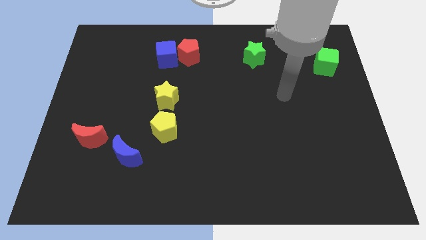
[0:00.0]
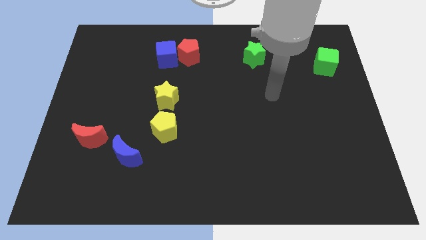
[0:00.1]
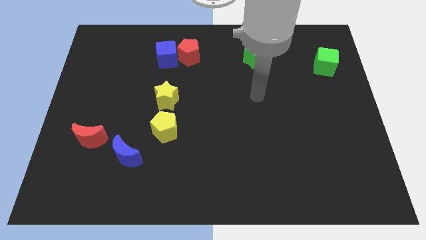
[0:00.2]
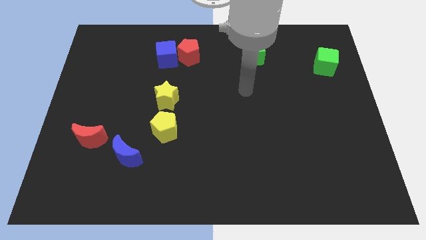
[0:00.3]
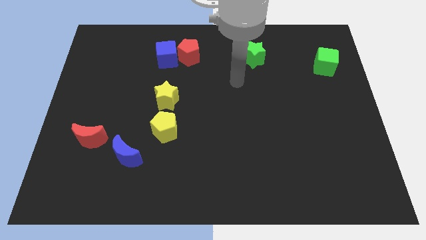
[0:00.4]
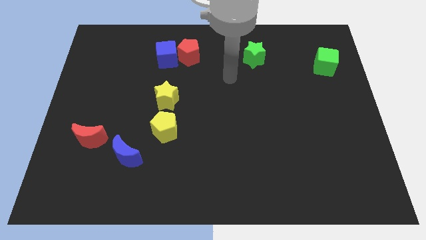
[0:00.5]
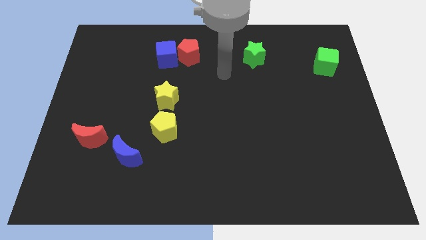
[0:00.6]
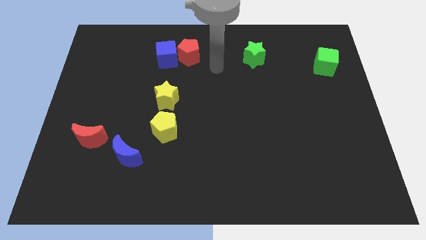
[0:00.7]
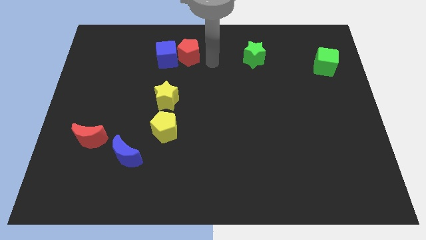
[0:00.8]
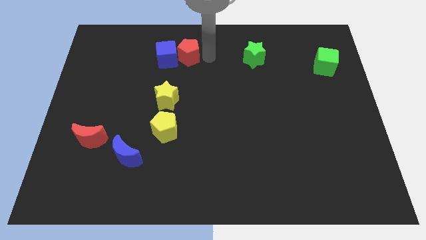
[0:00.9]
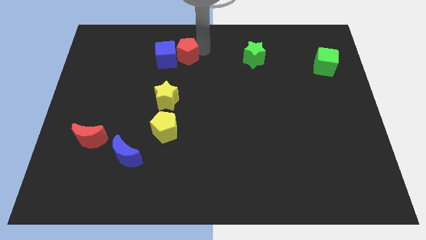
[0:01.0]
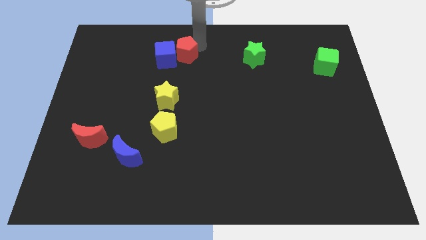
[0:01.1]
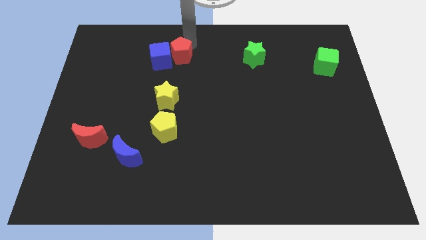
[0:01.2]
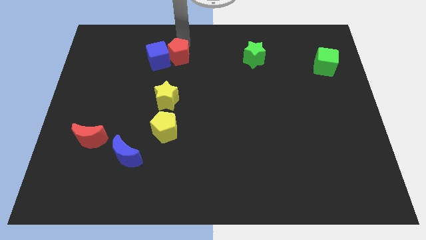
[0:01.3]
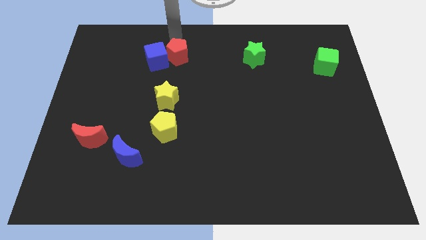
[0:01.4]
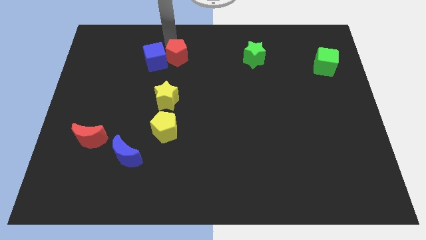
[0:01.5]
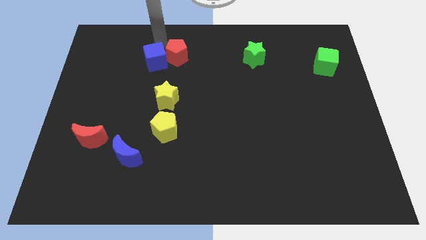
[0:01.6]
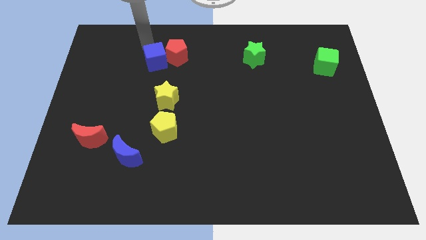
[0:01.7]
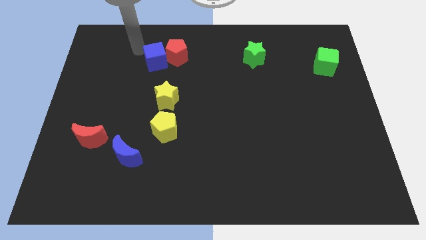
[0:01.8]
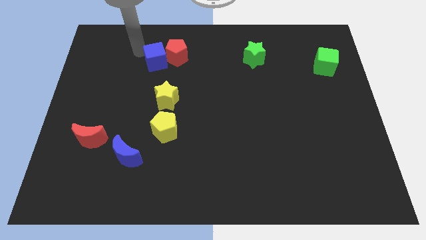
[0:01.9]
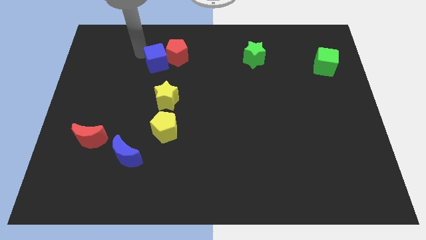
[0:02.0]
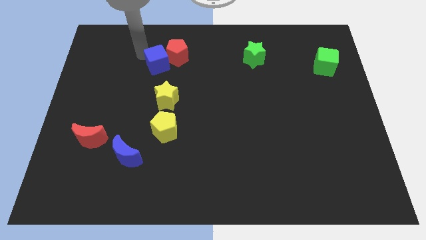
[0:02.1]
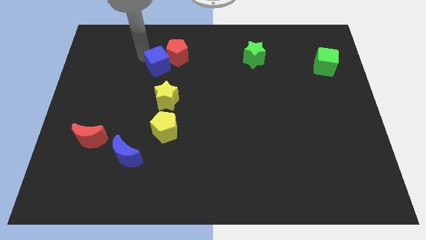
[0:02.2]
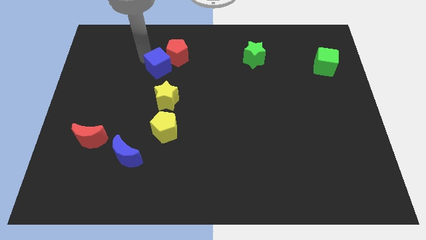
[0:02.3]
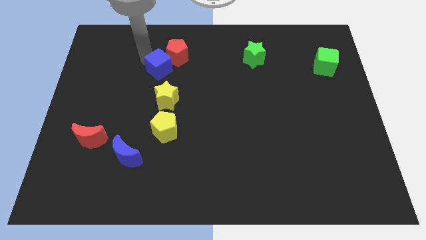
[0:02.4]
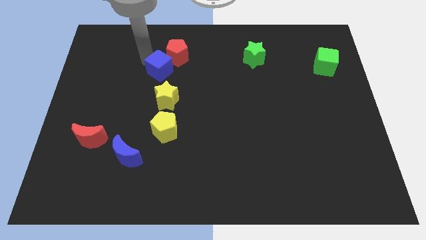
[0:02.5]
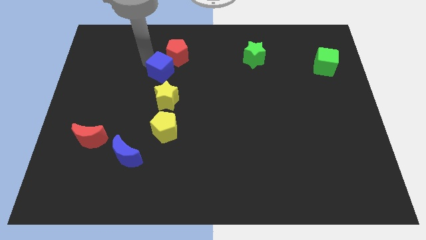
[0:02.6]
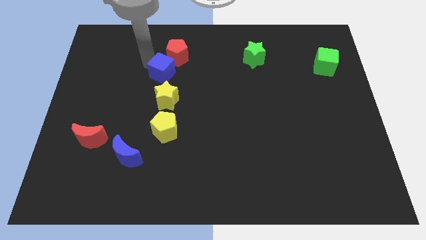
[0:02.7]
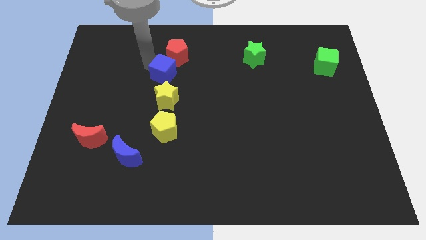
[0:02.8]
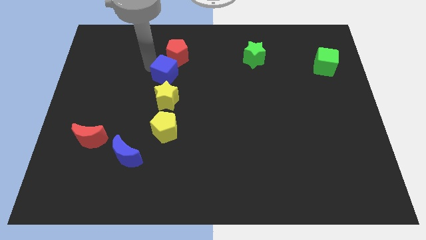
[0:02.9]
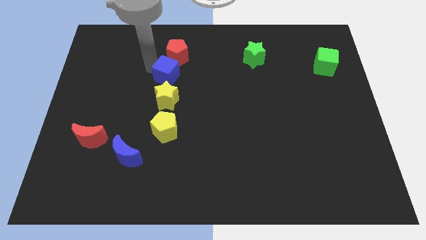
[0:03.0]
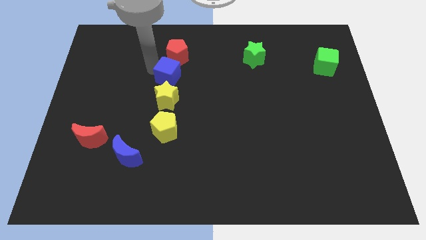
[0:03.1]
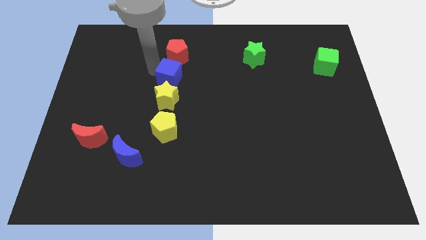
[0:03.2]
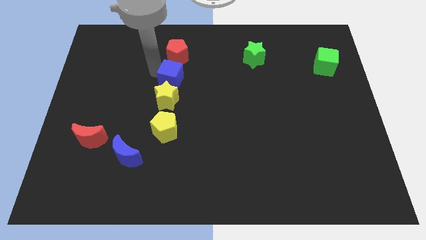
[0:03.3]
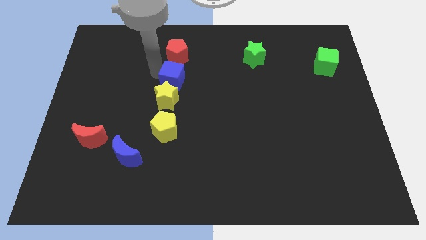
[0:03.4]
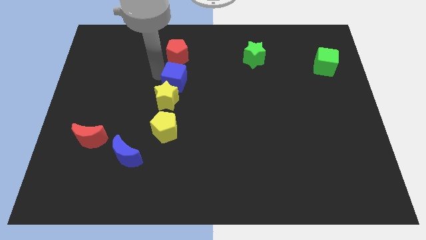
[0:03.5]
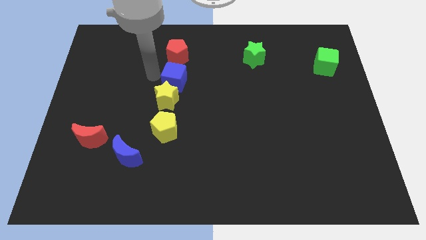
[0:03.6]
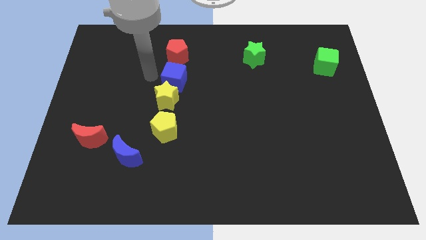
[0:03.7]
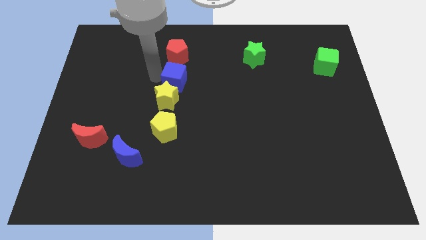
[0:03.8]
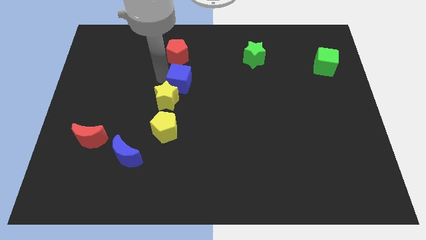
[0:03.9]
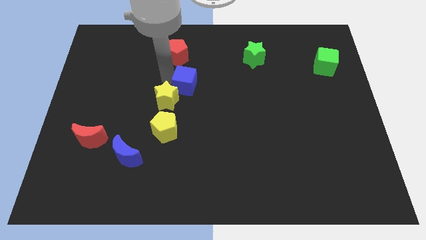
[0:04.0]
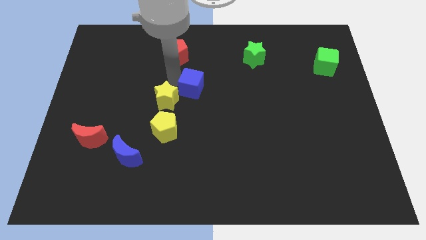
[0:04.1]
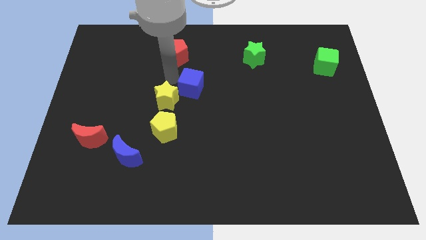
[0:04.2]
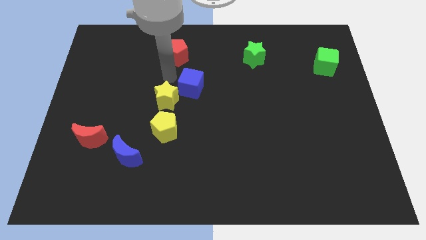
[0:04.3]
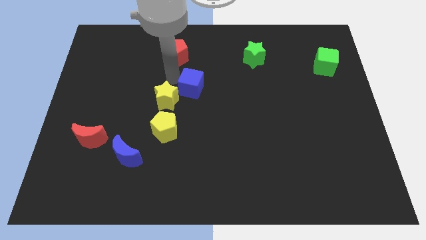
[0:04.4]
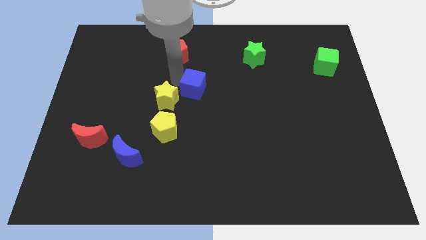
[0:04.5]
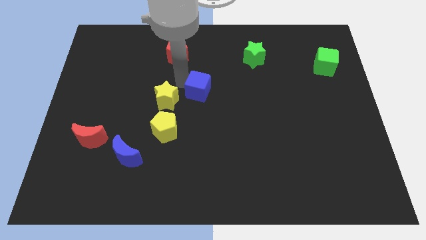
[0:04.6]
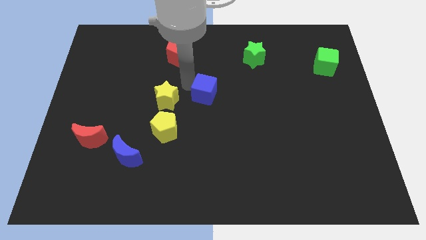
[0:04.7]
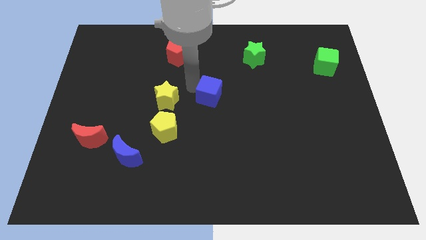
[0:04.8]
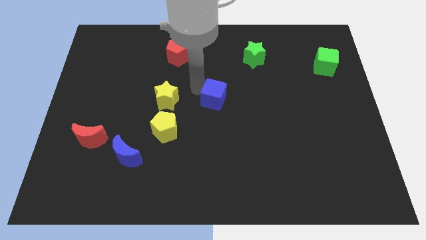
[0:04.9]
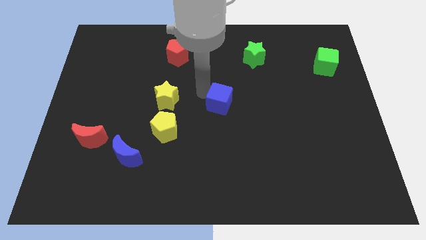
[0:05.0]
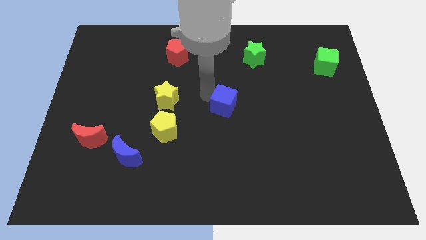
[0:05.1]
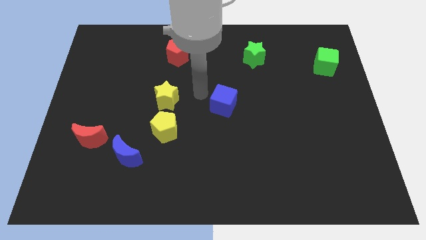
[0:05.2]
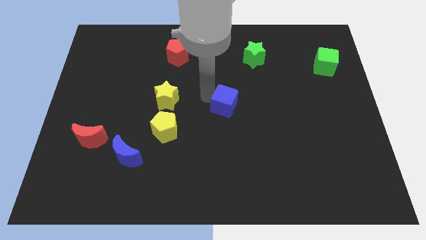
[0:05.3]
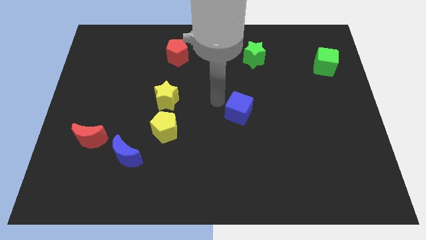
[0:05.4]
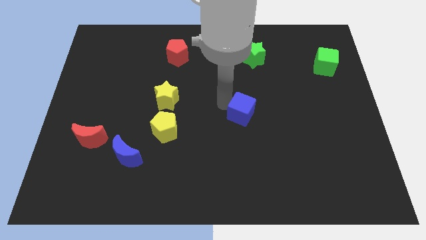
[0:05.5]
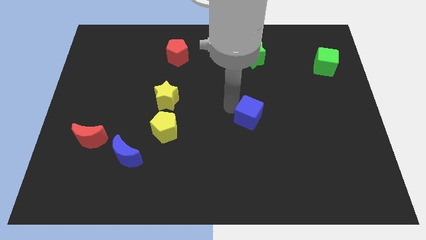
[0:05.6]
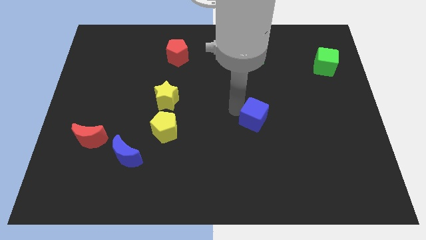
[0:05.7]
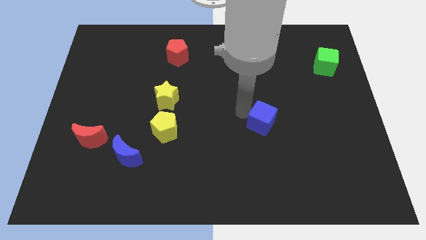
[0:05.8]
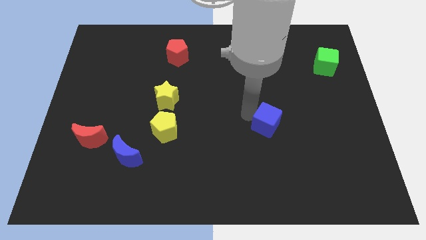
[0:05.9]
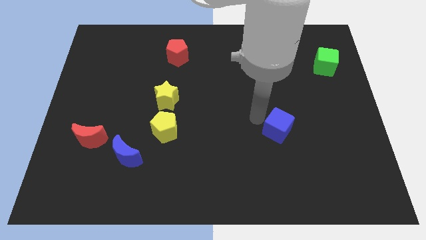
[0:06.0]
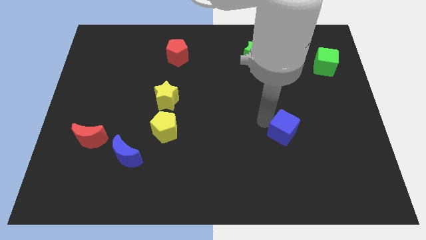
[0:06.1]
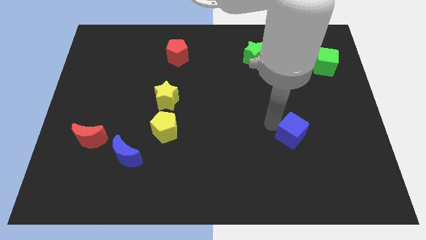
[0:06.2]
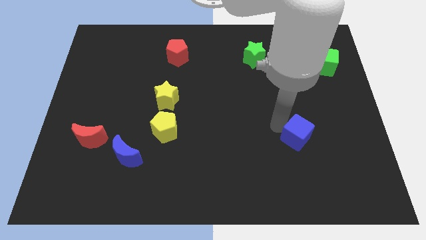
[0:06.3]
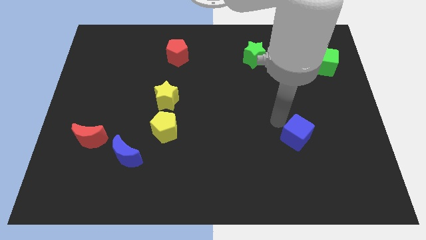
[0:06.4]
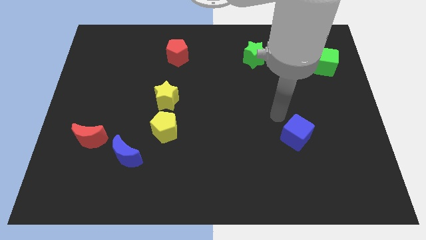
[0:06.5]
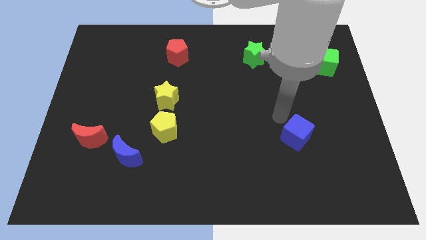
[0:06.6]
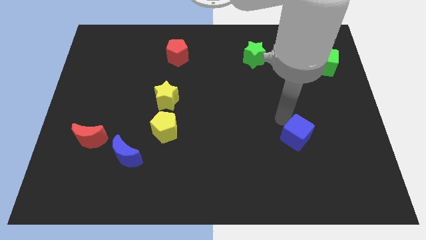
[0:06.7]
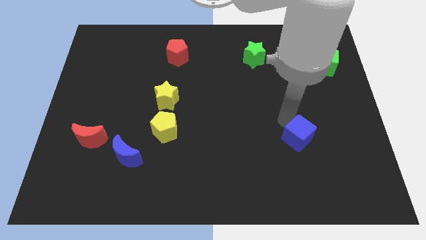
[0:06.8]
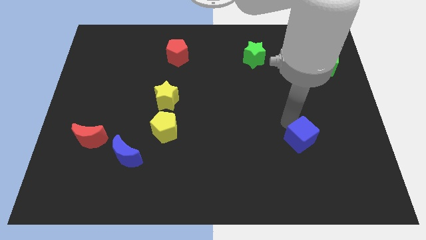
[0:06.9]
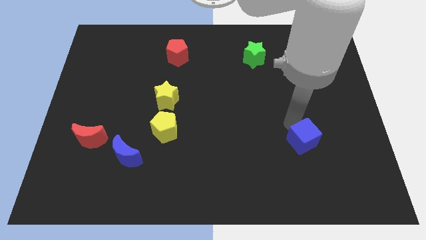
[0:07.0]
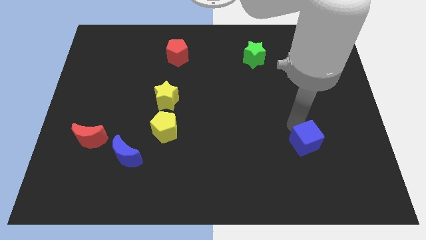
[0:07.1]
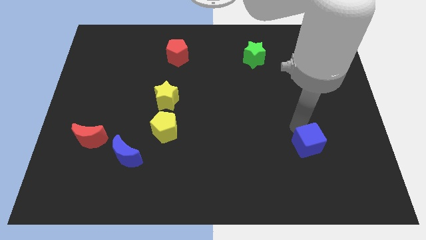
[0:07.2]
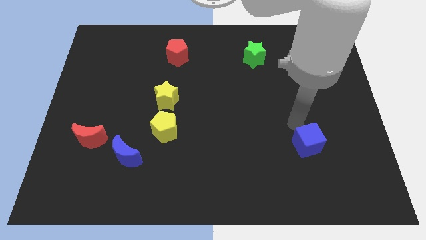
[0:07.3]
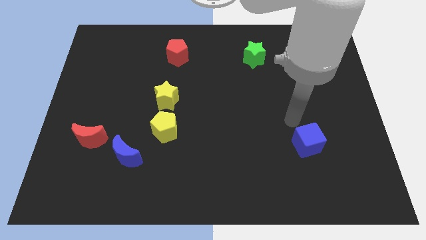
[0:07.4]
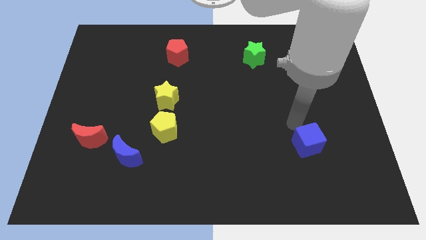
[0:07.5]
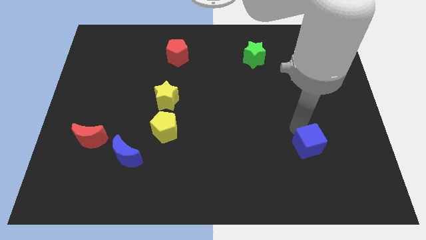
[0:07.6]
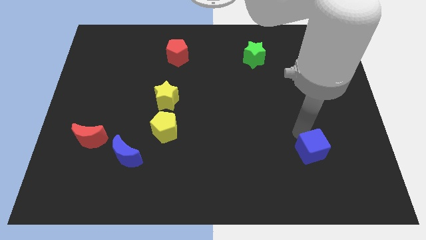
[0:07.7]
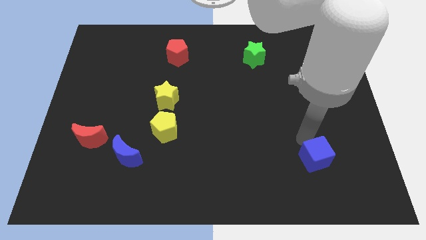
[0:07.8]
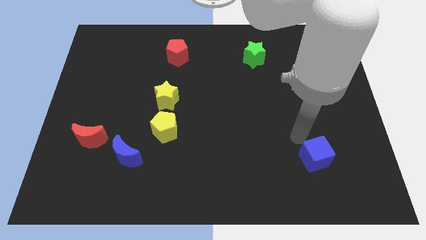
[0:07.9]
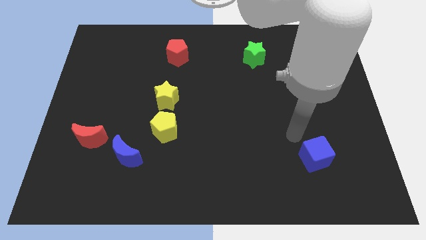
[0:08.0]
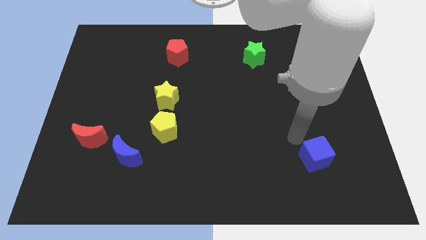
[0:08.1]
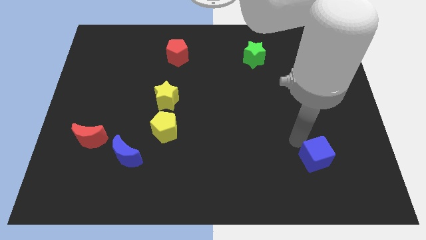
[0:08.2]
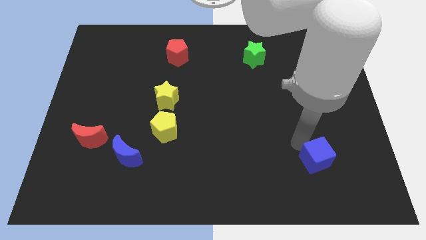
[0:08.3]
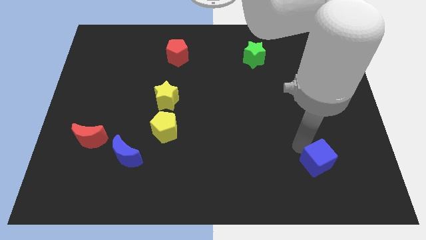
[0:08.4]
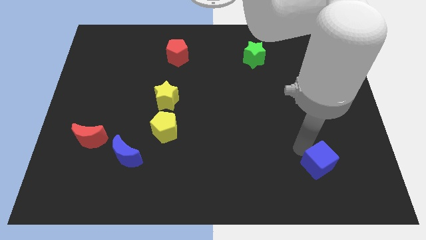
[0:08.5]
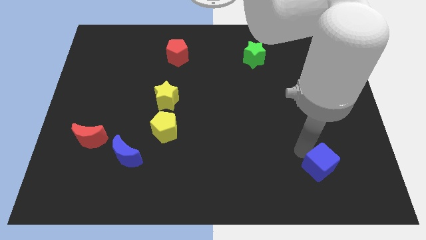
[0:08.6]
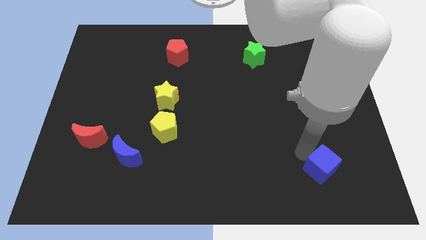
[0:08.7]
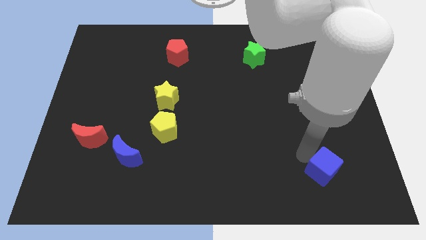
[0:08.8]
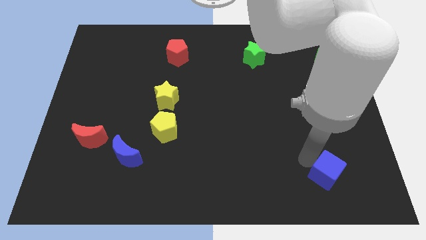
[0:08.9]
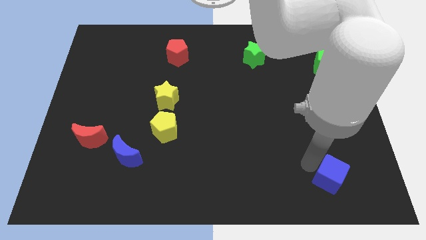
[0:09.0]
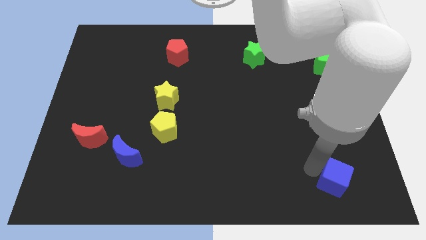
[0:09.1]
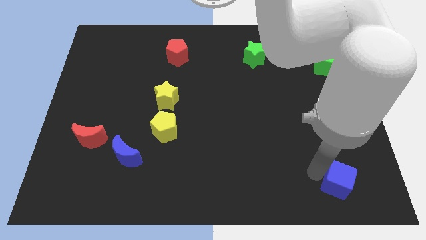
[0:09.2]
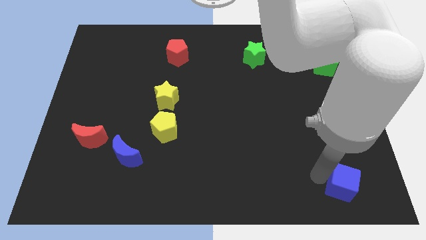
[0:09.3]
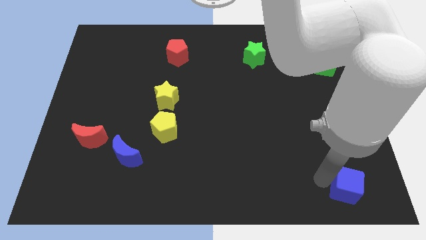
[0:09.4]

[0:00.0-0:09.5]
put the blue cube to the bottom right of the board
